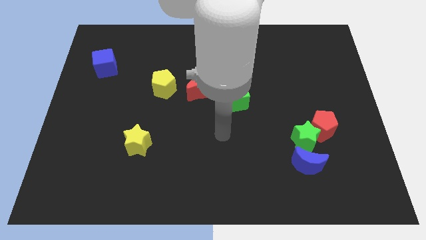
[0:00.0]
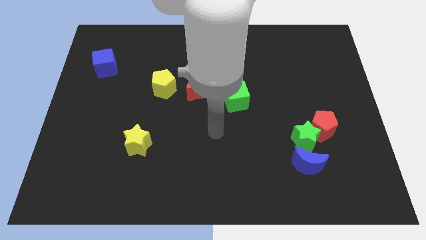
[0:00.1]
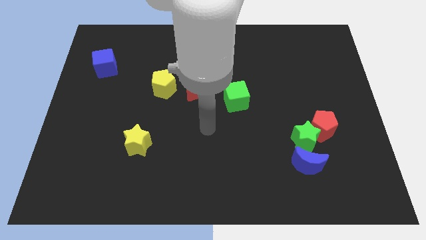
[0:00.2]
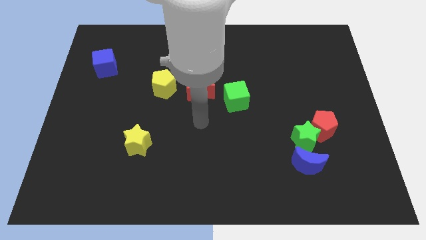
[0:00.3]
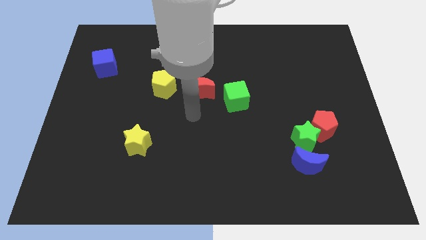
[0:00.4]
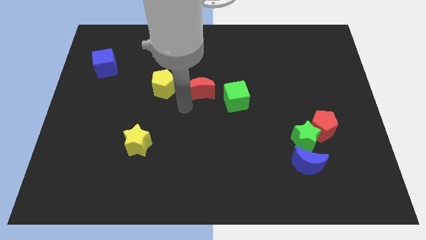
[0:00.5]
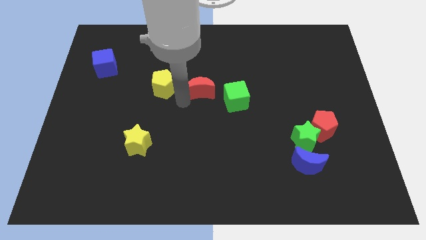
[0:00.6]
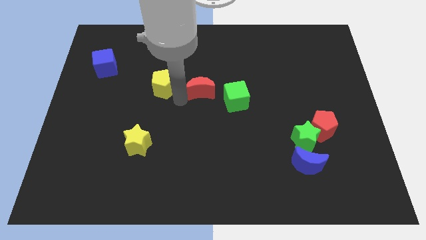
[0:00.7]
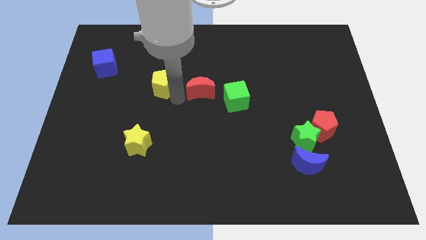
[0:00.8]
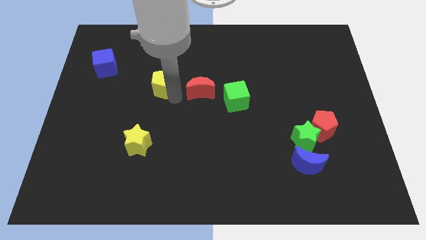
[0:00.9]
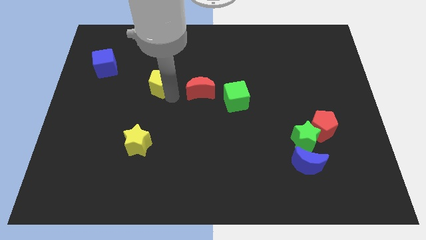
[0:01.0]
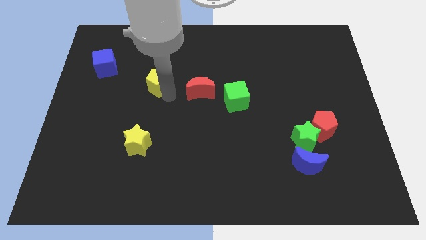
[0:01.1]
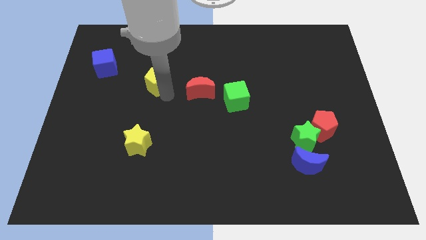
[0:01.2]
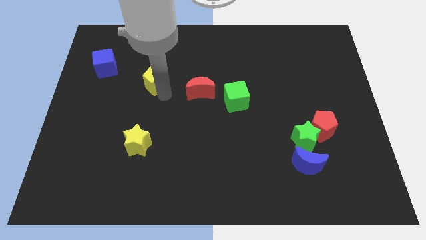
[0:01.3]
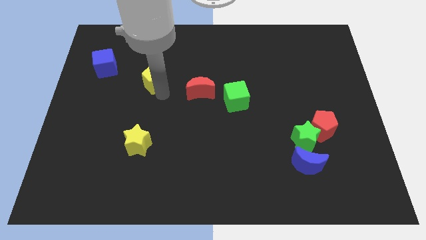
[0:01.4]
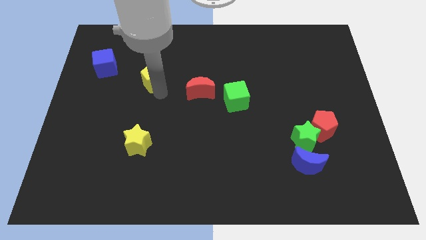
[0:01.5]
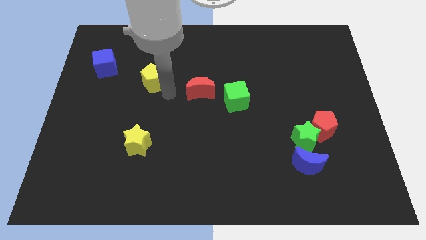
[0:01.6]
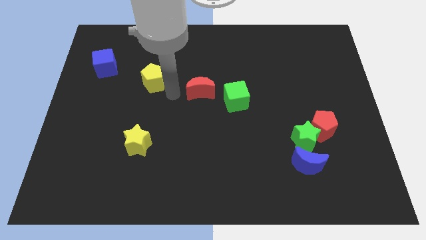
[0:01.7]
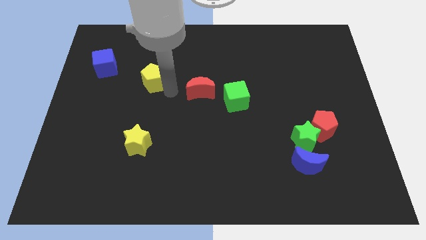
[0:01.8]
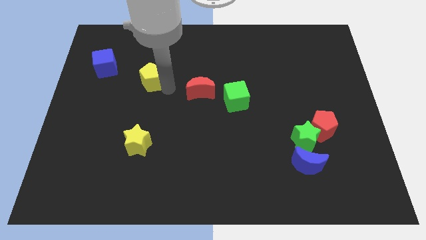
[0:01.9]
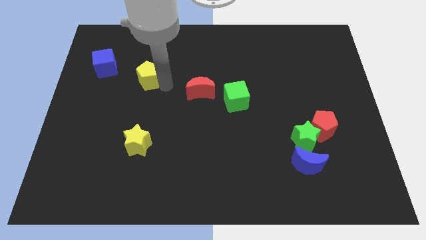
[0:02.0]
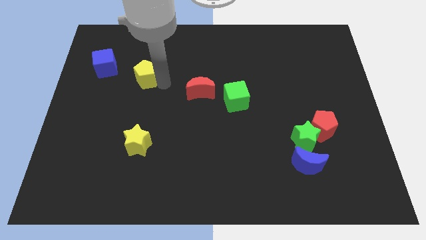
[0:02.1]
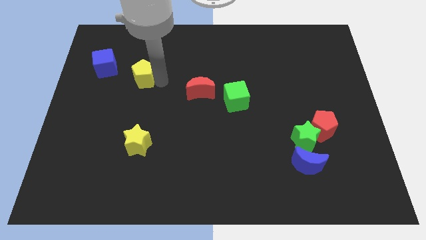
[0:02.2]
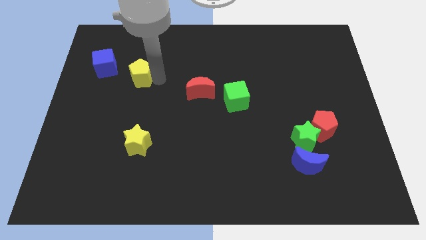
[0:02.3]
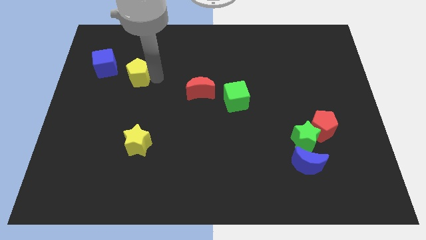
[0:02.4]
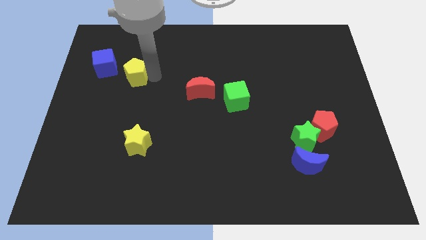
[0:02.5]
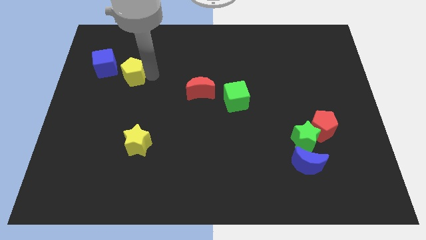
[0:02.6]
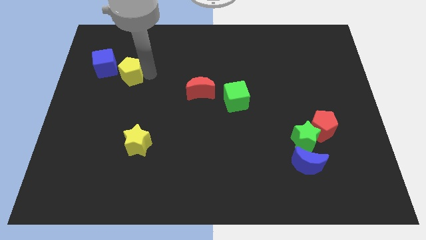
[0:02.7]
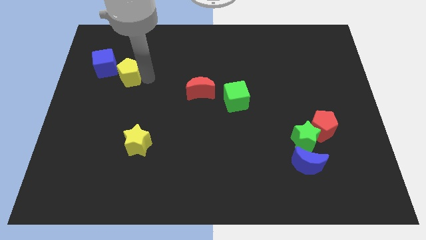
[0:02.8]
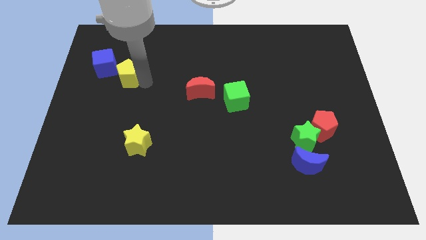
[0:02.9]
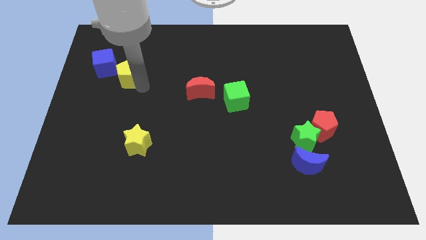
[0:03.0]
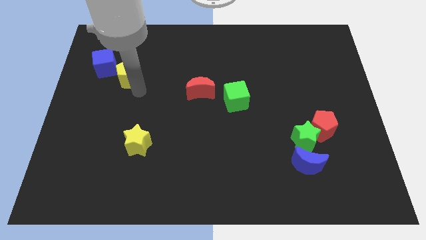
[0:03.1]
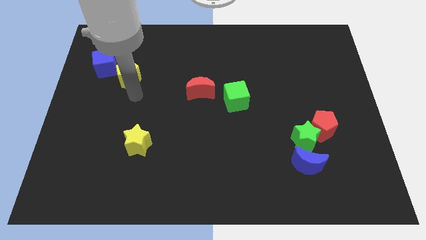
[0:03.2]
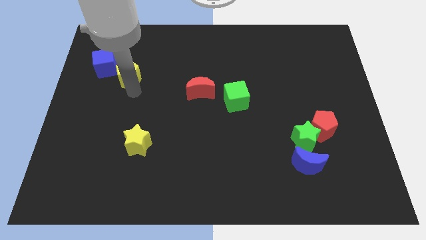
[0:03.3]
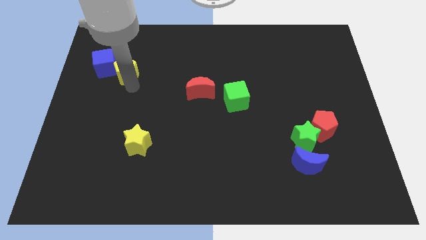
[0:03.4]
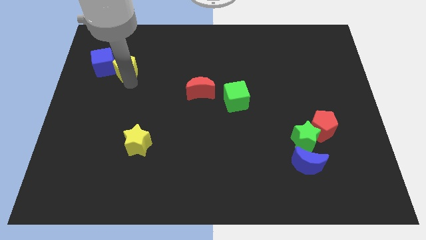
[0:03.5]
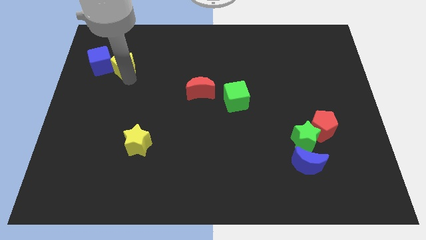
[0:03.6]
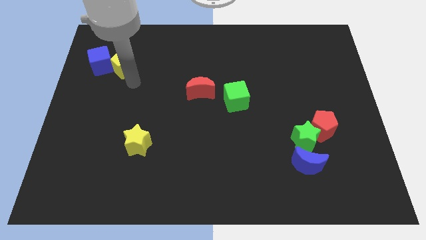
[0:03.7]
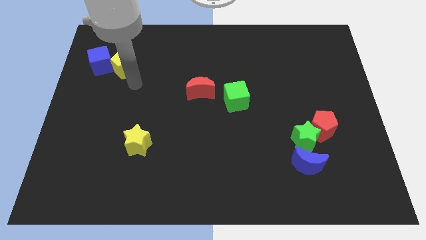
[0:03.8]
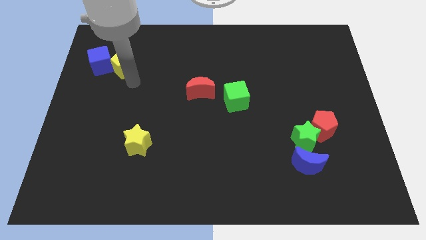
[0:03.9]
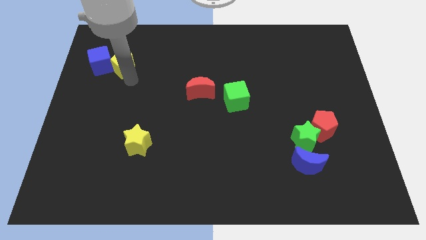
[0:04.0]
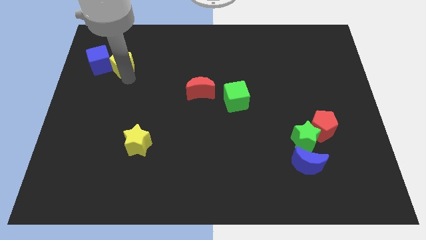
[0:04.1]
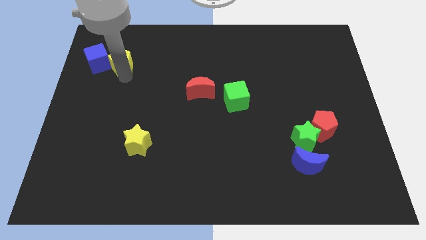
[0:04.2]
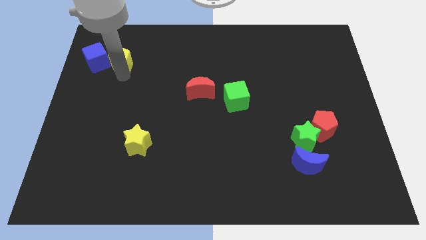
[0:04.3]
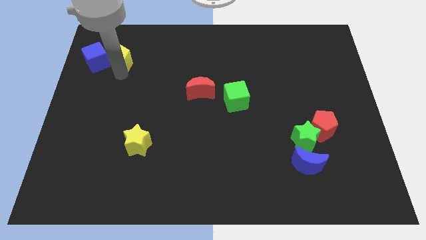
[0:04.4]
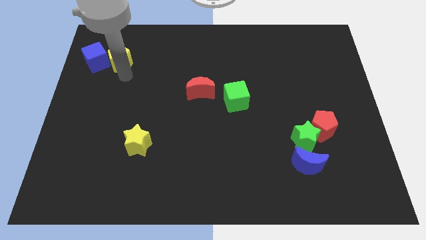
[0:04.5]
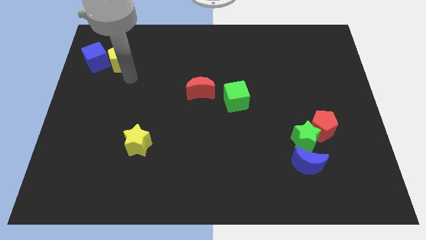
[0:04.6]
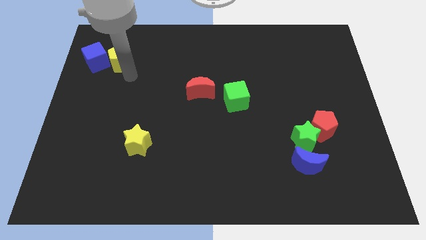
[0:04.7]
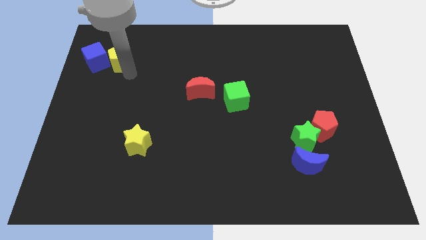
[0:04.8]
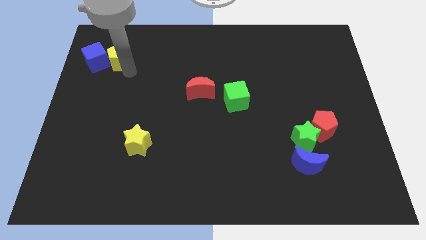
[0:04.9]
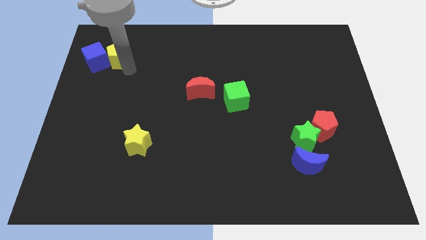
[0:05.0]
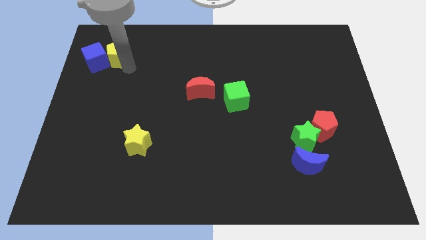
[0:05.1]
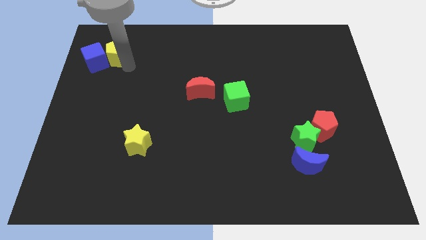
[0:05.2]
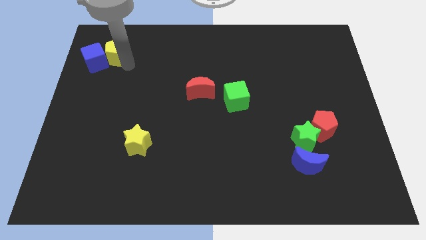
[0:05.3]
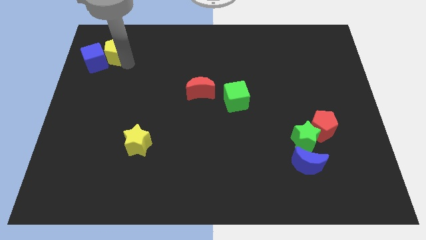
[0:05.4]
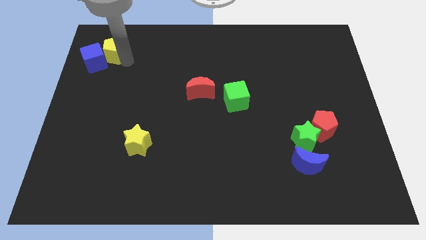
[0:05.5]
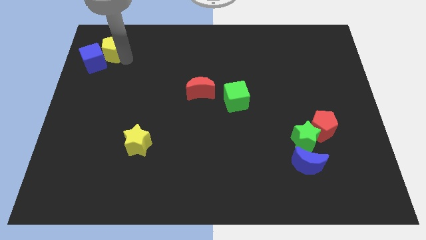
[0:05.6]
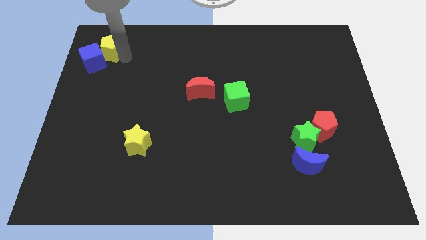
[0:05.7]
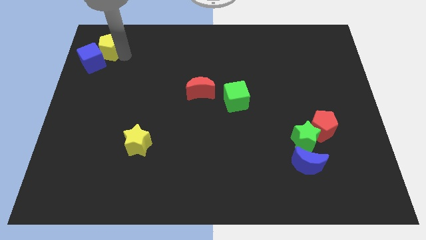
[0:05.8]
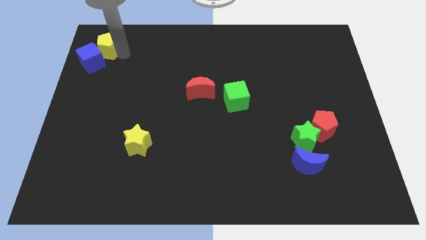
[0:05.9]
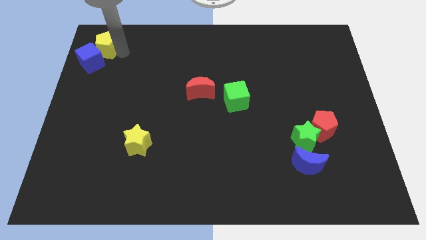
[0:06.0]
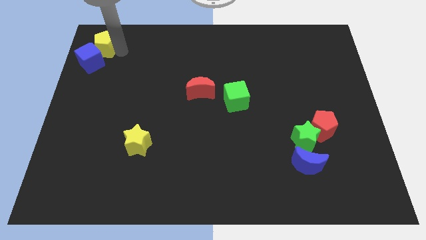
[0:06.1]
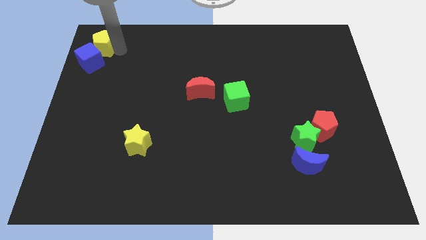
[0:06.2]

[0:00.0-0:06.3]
move the yellow pentagon to the top left of the board

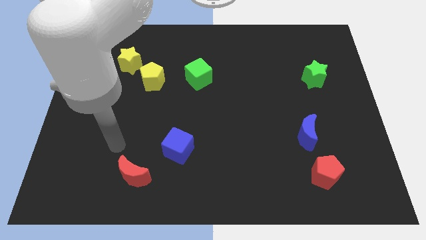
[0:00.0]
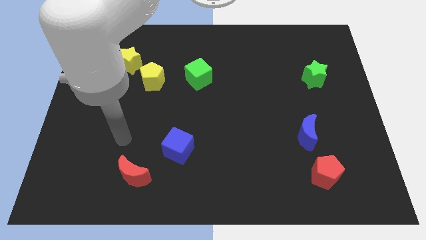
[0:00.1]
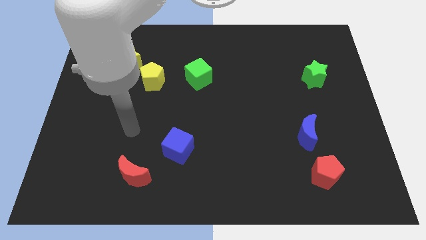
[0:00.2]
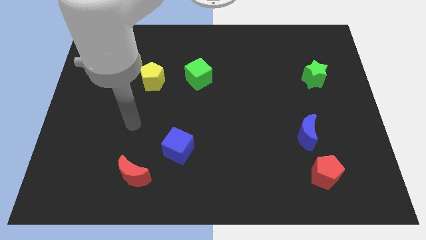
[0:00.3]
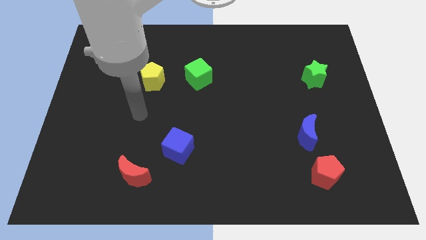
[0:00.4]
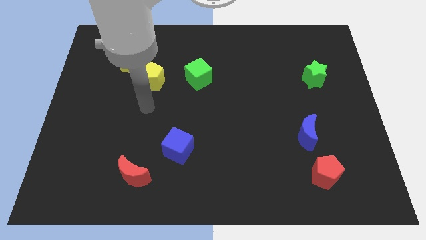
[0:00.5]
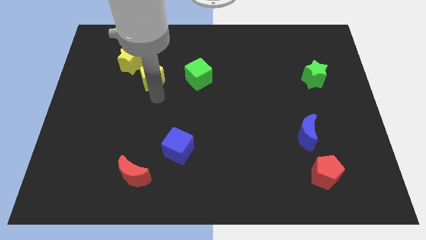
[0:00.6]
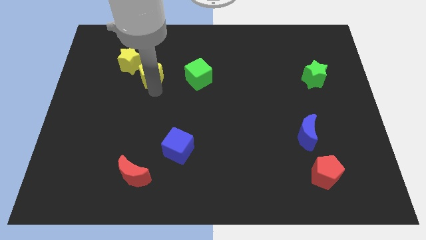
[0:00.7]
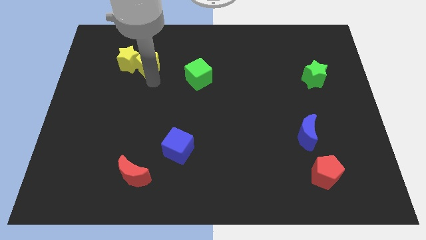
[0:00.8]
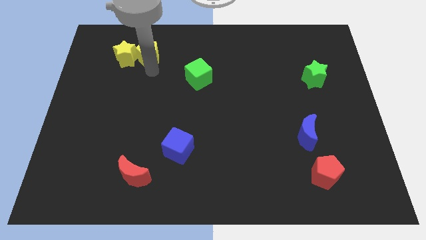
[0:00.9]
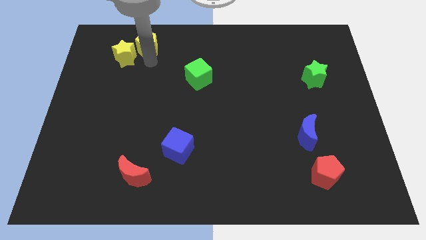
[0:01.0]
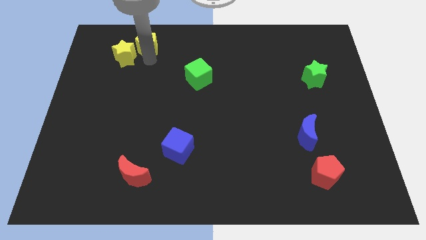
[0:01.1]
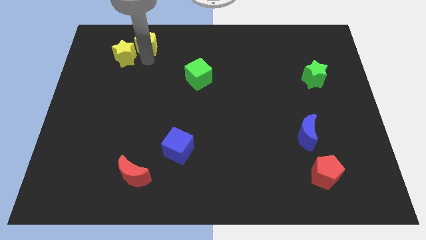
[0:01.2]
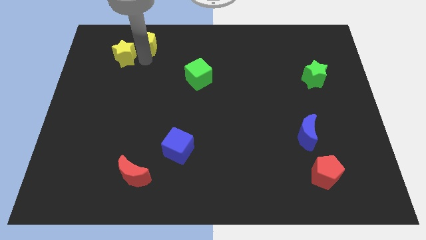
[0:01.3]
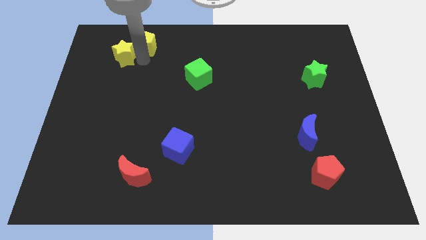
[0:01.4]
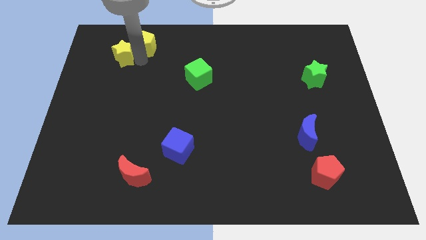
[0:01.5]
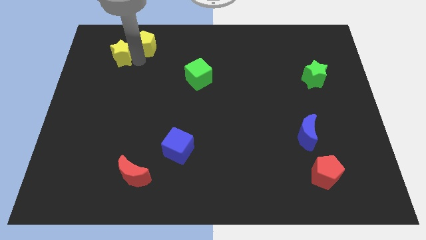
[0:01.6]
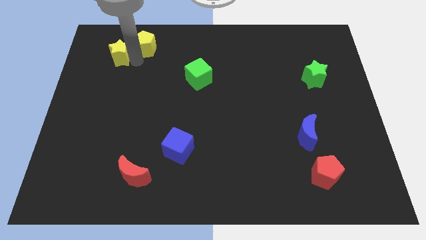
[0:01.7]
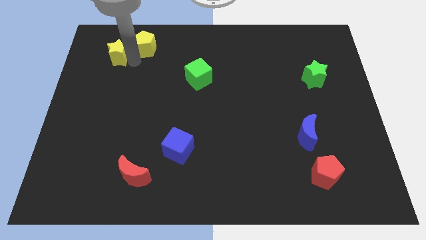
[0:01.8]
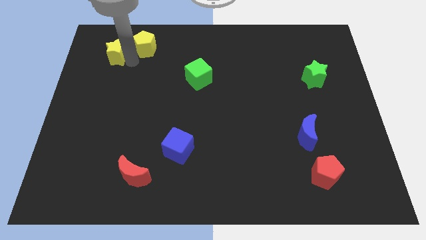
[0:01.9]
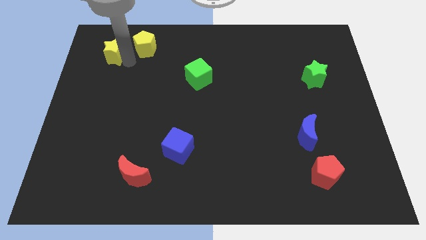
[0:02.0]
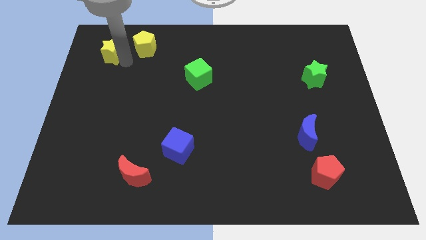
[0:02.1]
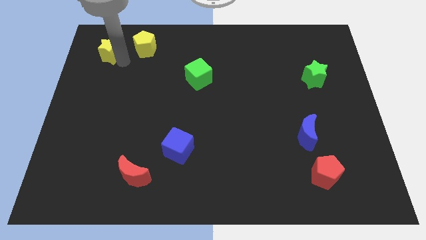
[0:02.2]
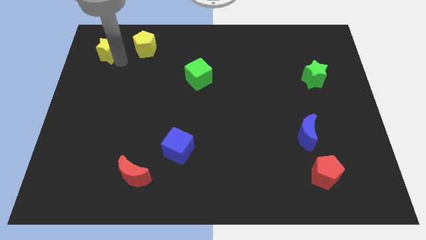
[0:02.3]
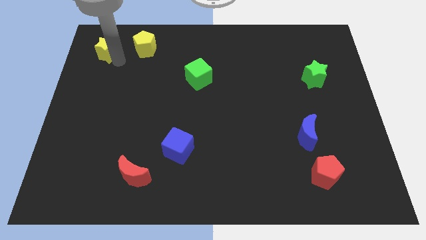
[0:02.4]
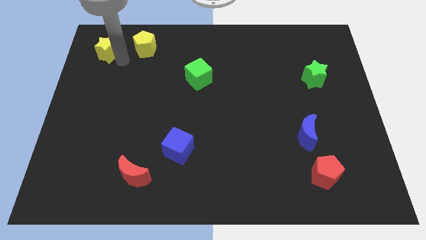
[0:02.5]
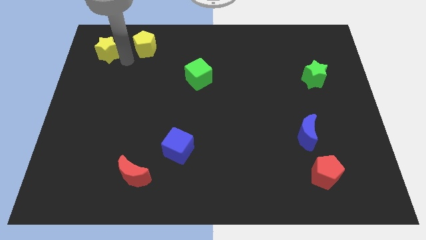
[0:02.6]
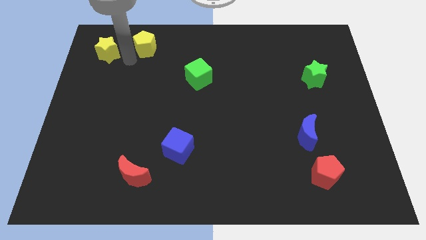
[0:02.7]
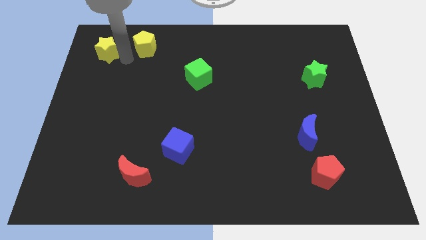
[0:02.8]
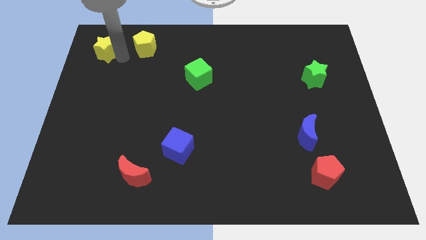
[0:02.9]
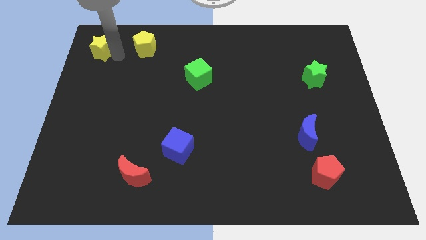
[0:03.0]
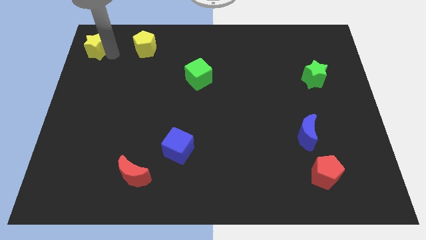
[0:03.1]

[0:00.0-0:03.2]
push the yellow star to the top left corner
